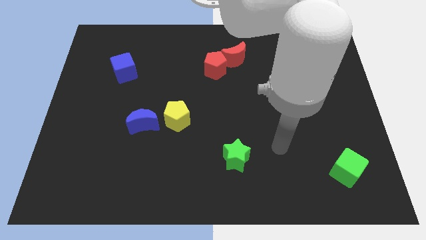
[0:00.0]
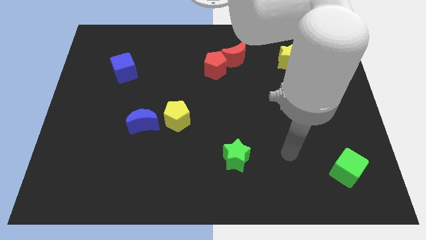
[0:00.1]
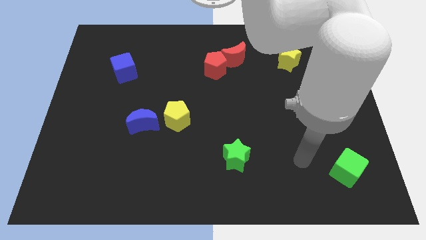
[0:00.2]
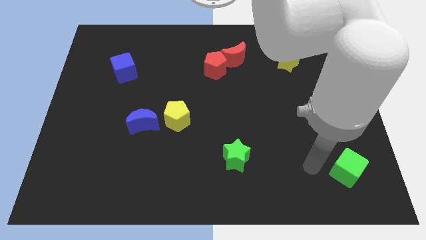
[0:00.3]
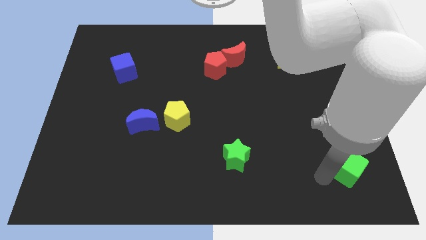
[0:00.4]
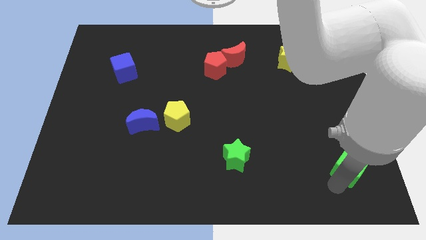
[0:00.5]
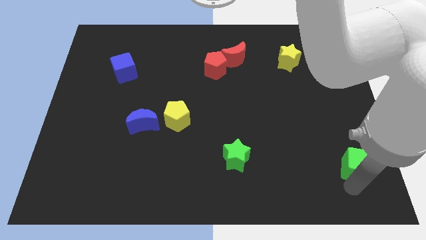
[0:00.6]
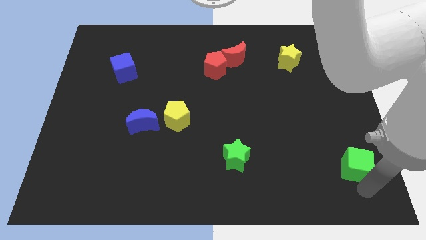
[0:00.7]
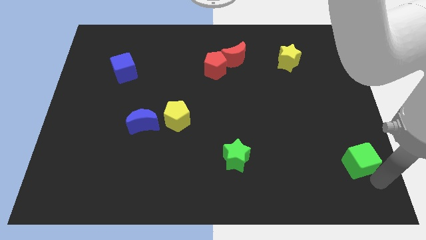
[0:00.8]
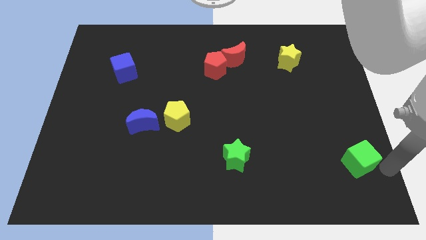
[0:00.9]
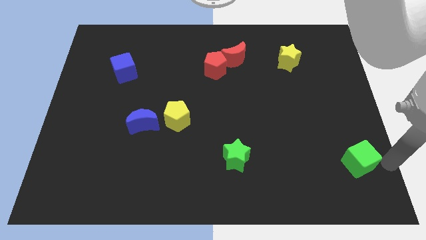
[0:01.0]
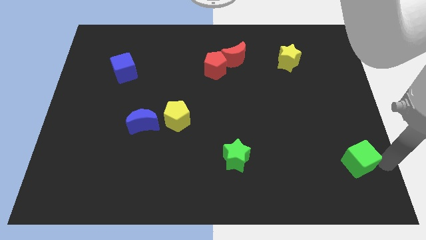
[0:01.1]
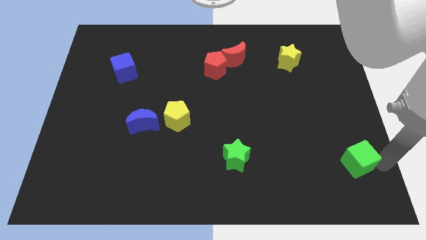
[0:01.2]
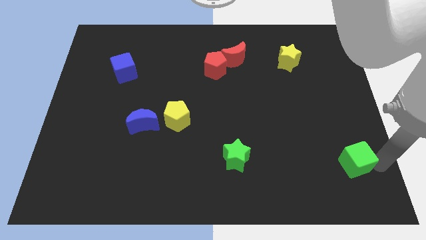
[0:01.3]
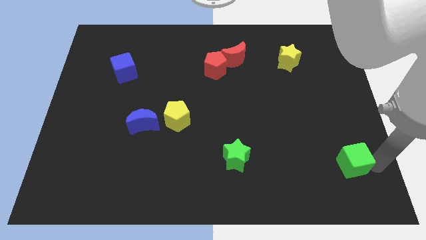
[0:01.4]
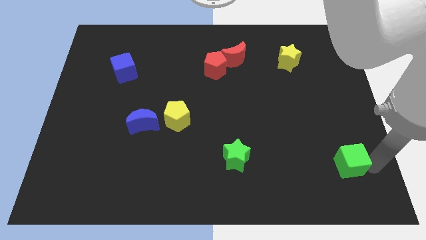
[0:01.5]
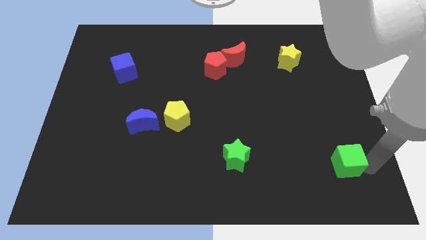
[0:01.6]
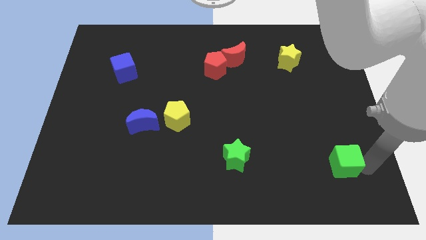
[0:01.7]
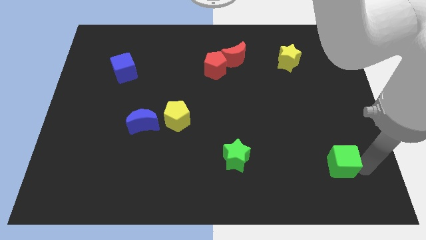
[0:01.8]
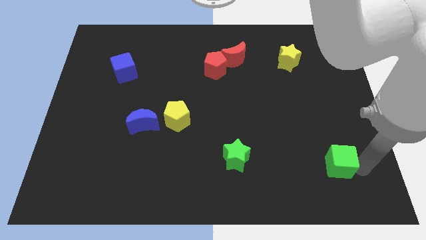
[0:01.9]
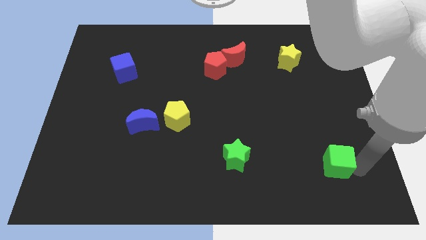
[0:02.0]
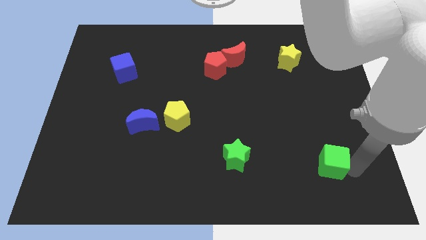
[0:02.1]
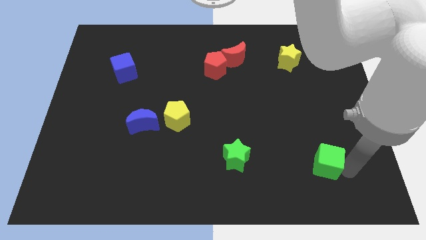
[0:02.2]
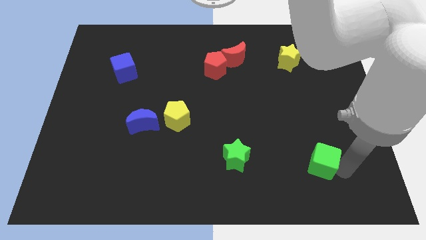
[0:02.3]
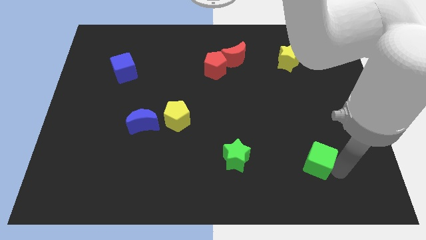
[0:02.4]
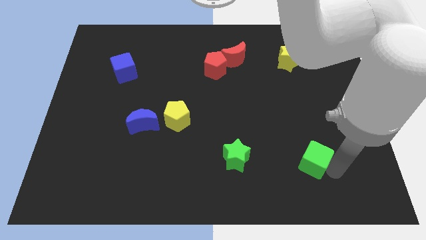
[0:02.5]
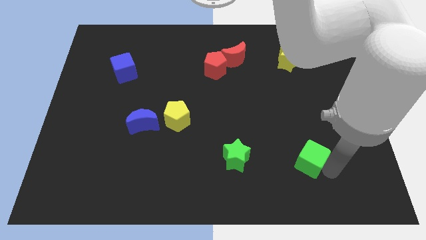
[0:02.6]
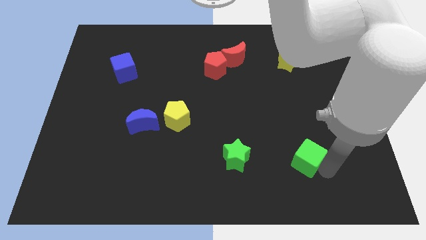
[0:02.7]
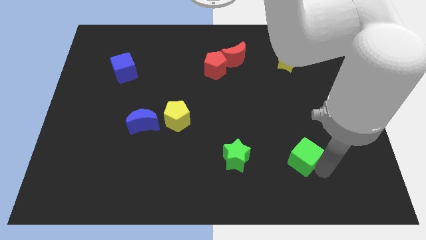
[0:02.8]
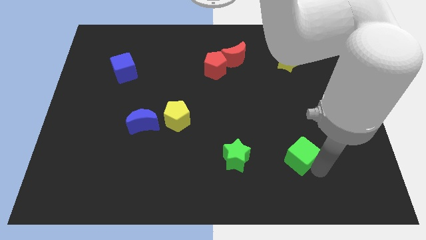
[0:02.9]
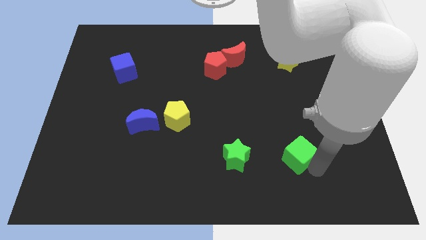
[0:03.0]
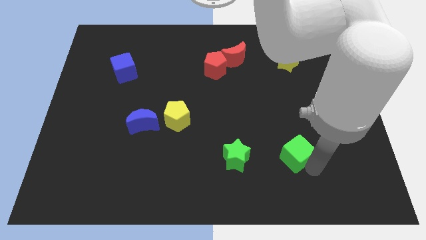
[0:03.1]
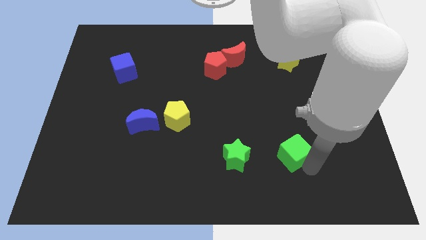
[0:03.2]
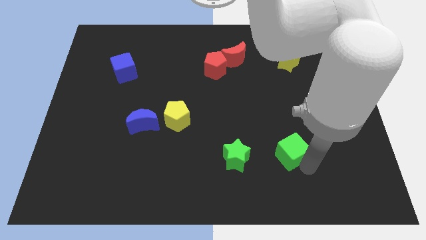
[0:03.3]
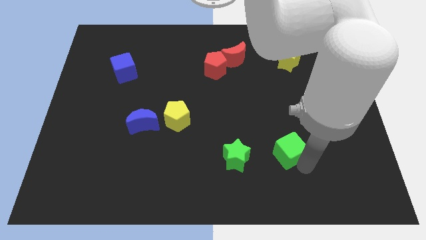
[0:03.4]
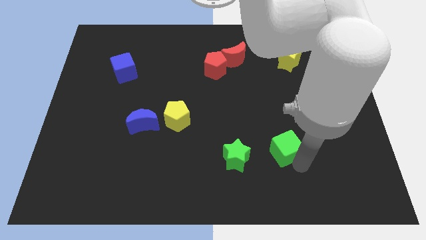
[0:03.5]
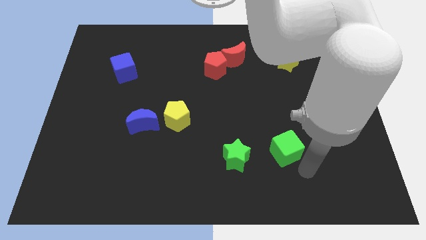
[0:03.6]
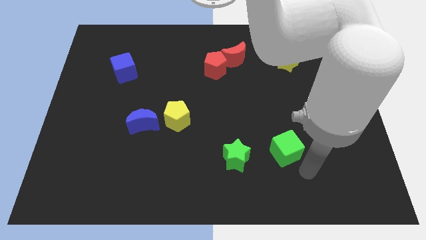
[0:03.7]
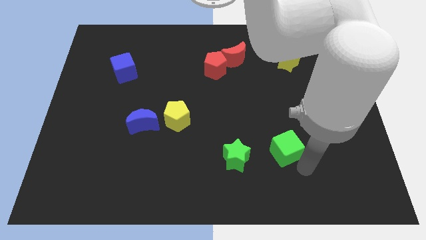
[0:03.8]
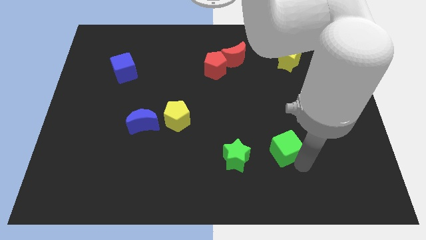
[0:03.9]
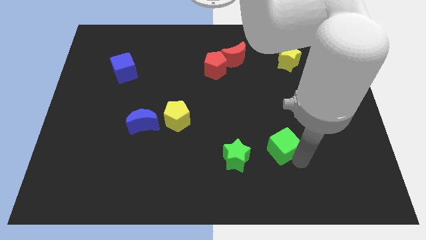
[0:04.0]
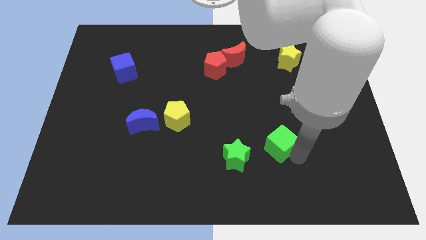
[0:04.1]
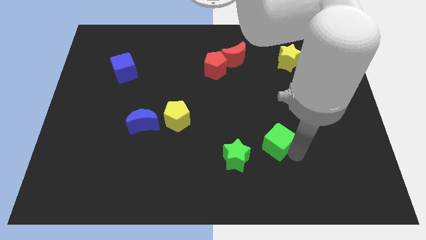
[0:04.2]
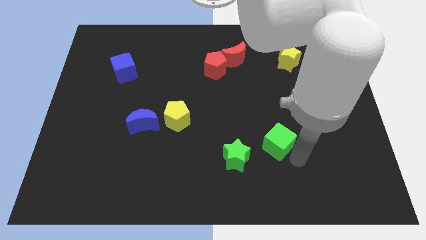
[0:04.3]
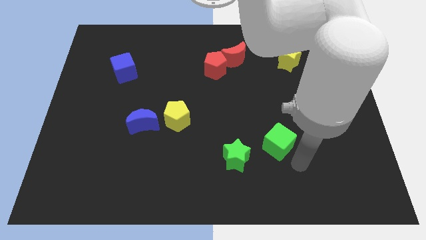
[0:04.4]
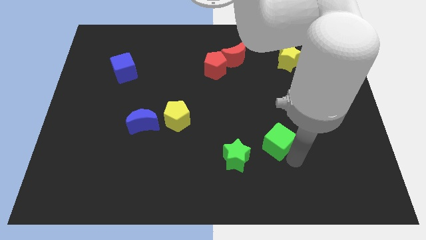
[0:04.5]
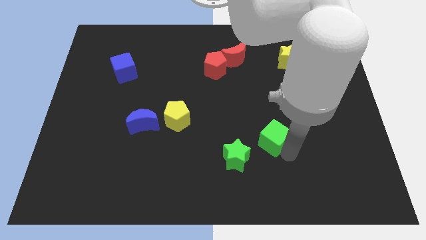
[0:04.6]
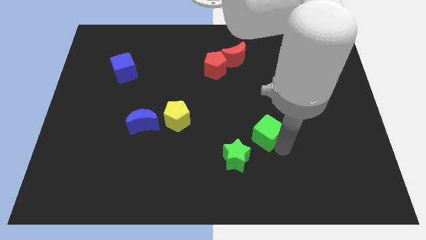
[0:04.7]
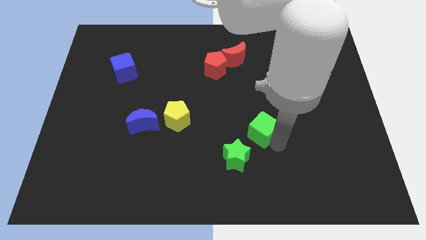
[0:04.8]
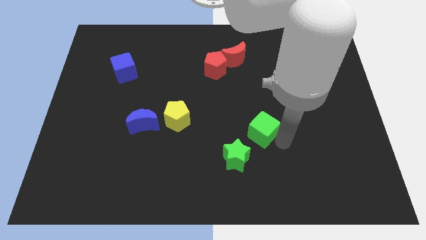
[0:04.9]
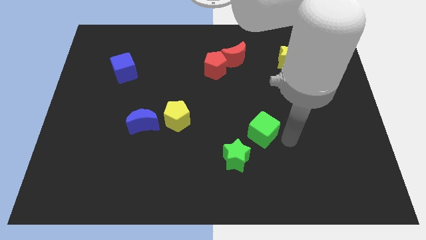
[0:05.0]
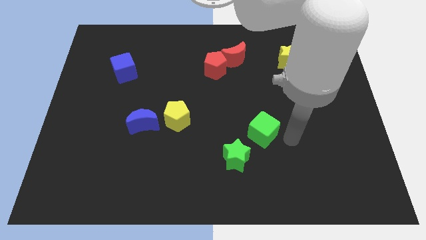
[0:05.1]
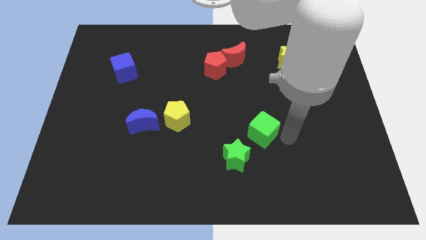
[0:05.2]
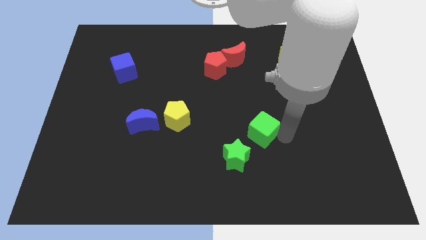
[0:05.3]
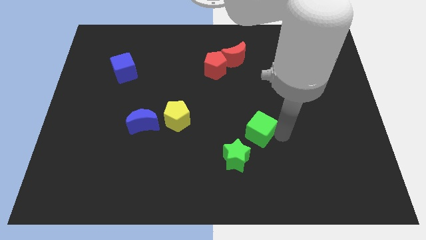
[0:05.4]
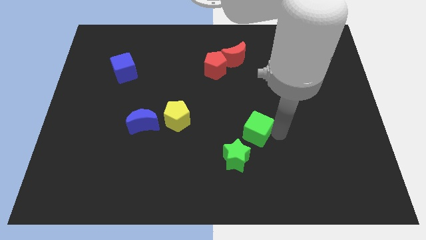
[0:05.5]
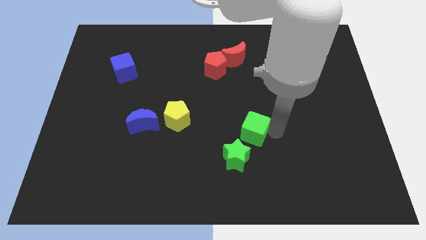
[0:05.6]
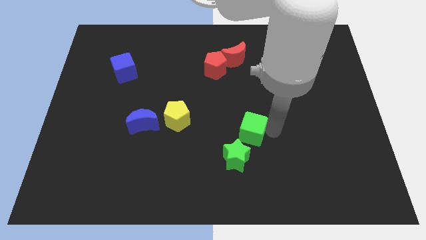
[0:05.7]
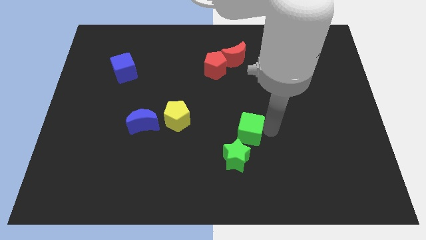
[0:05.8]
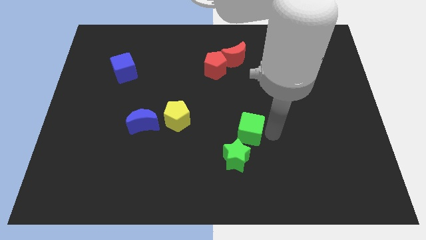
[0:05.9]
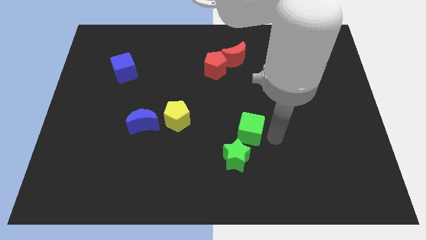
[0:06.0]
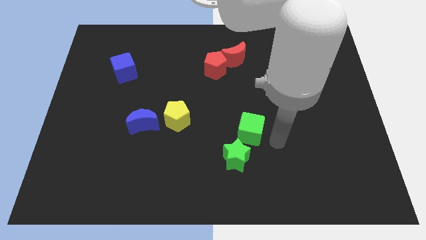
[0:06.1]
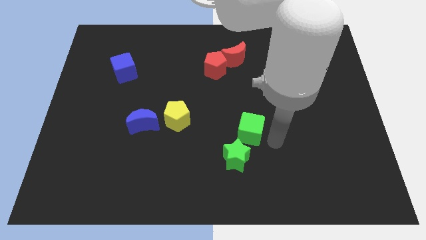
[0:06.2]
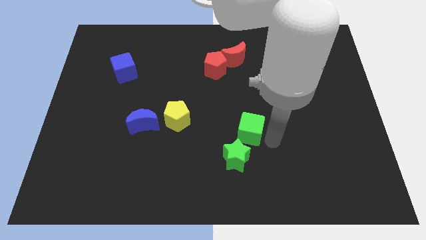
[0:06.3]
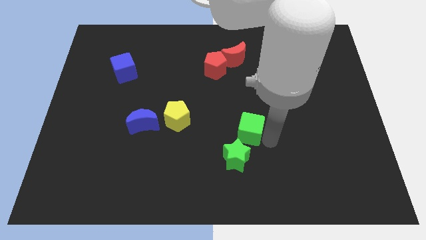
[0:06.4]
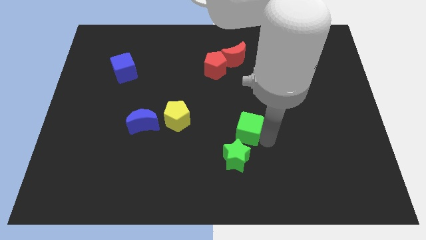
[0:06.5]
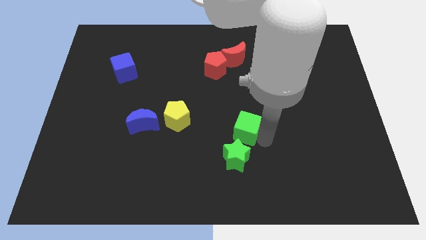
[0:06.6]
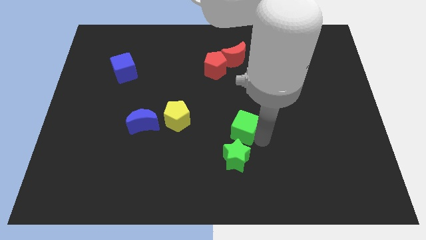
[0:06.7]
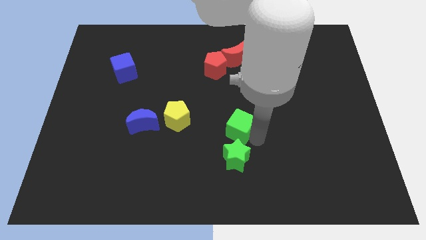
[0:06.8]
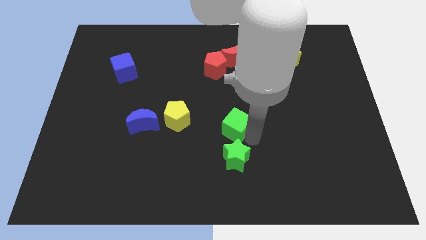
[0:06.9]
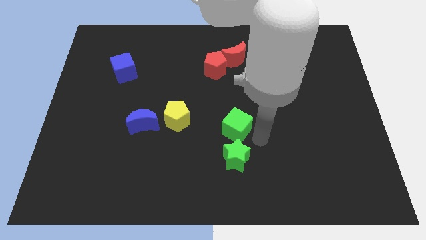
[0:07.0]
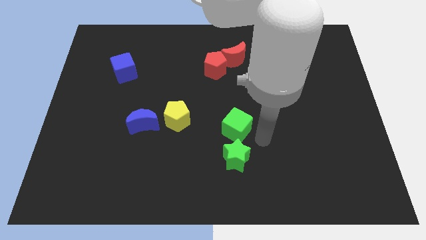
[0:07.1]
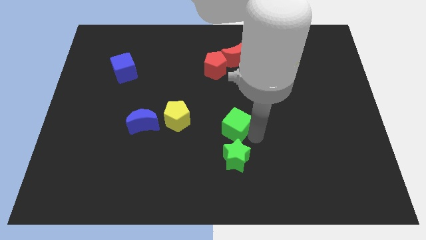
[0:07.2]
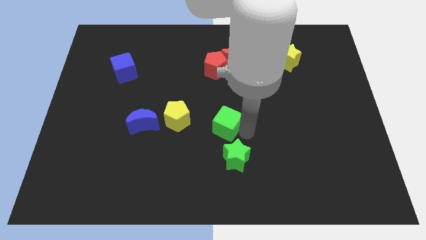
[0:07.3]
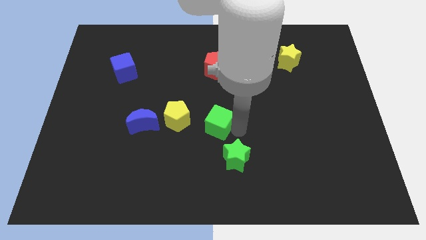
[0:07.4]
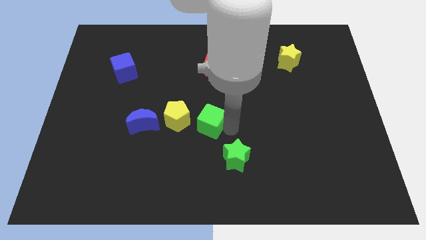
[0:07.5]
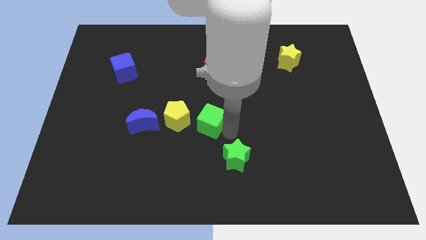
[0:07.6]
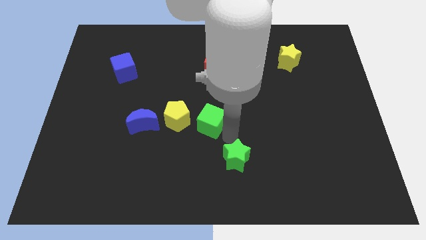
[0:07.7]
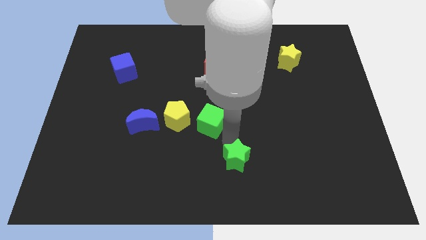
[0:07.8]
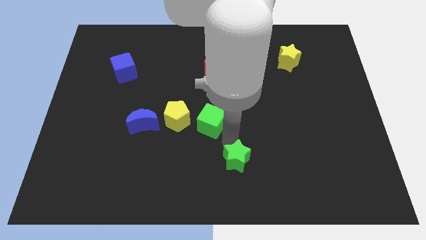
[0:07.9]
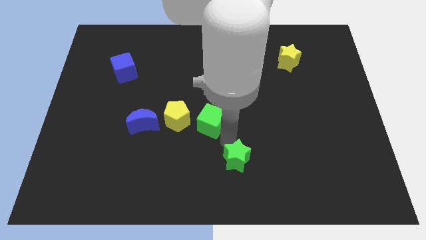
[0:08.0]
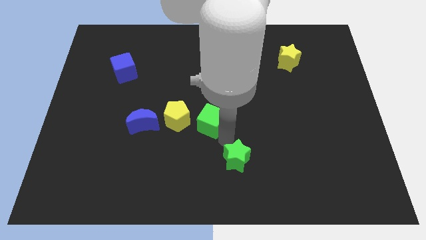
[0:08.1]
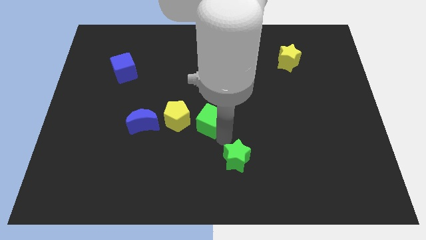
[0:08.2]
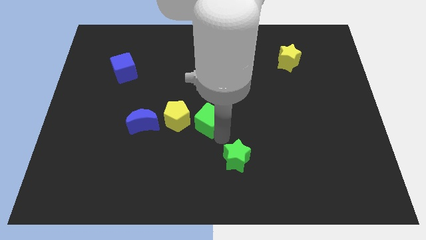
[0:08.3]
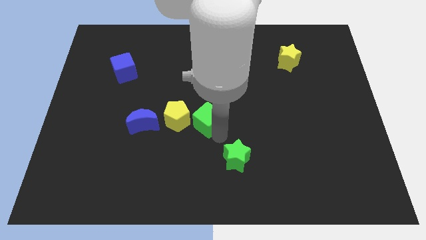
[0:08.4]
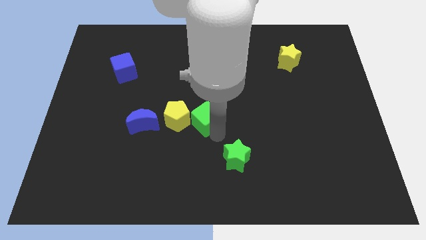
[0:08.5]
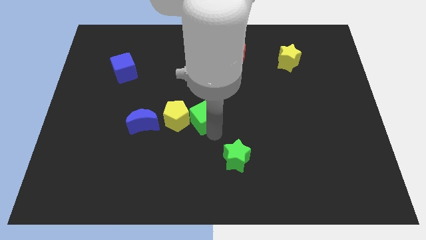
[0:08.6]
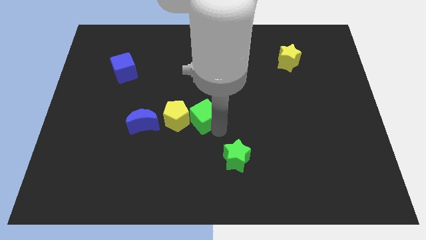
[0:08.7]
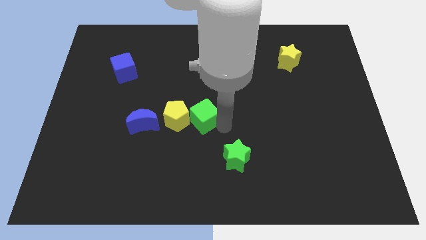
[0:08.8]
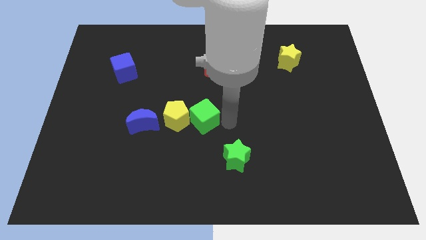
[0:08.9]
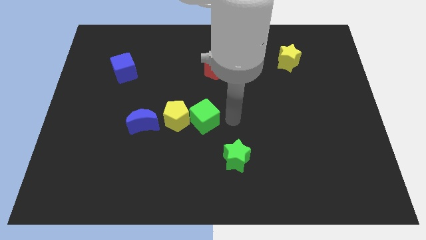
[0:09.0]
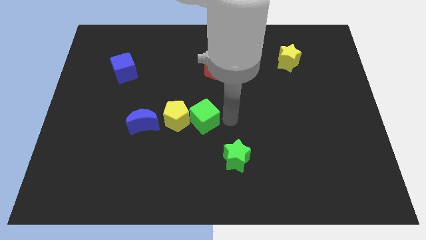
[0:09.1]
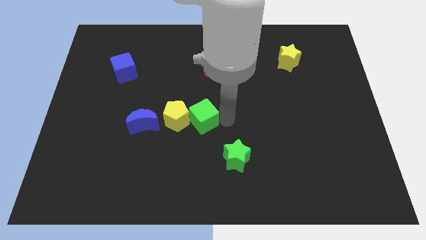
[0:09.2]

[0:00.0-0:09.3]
put the green cube to the yellow pentagon
